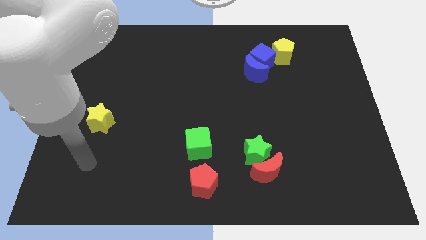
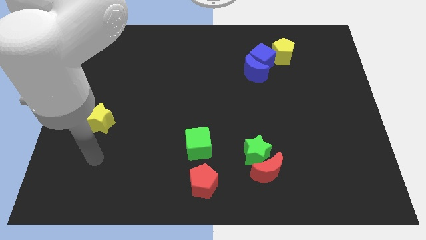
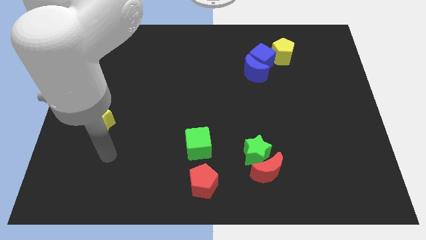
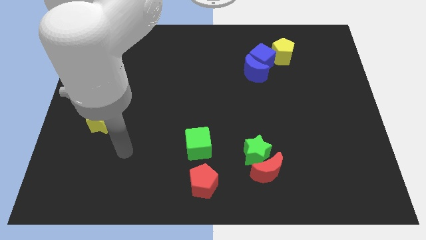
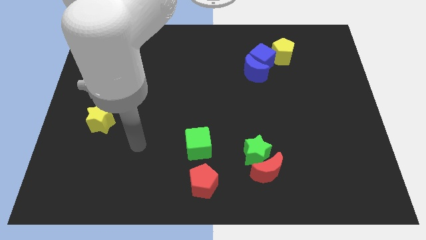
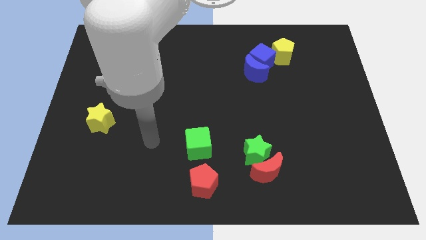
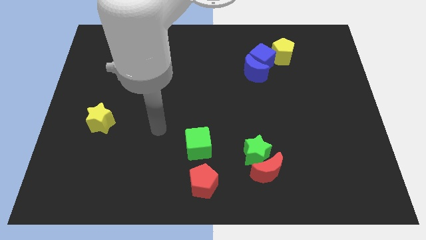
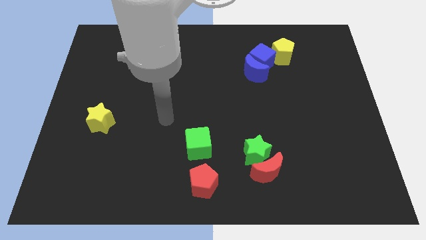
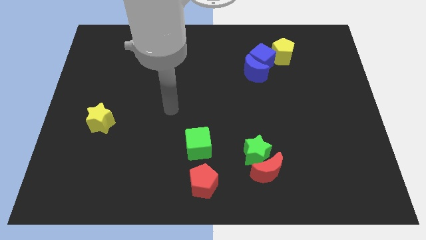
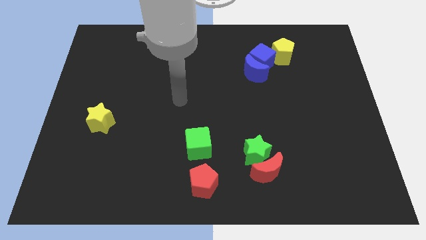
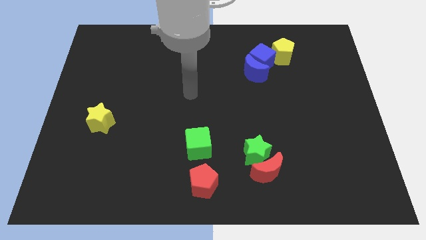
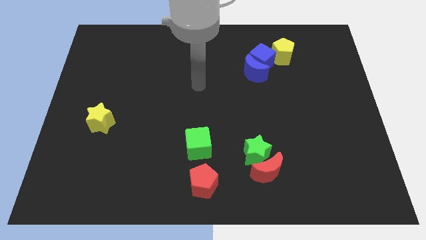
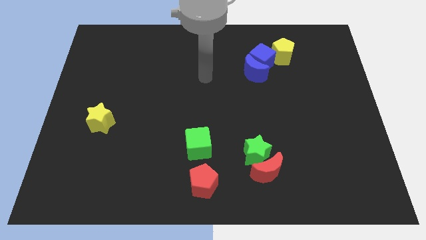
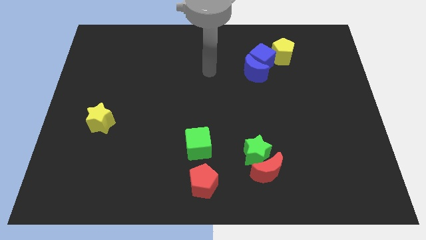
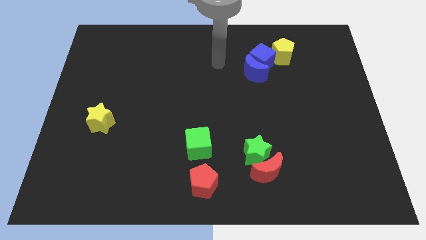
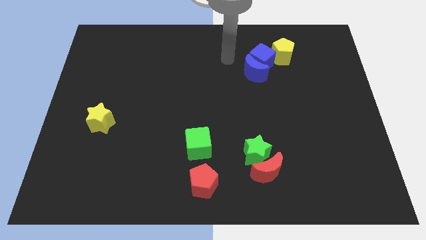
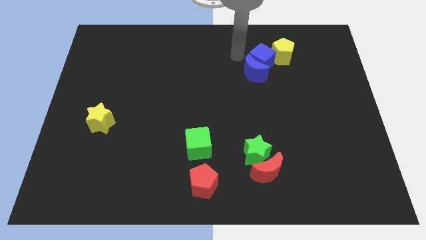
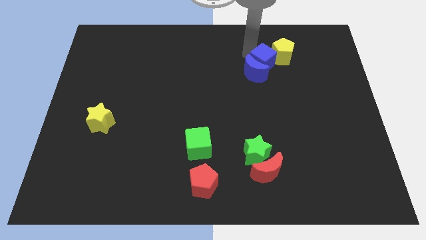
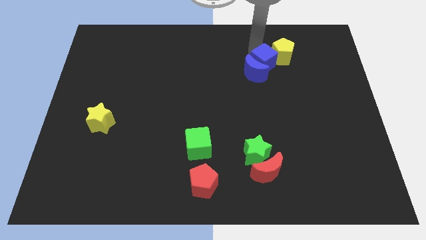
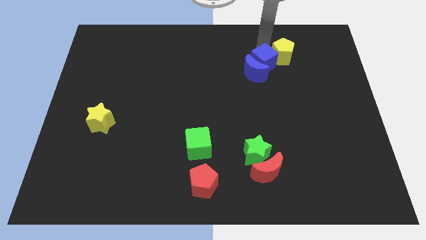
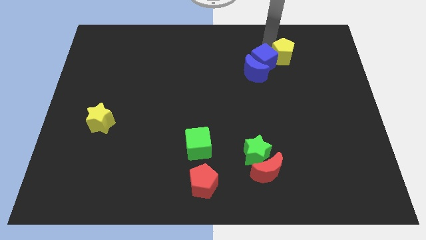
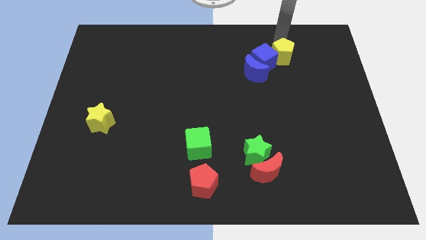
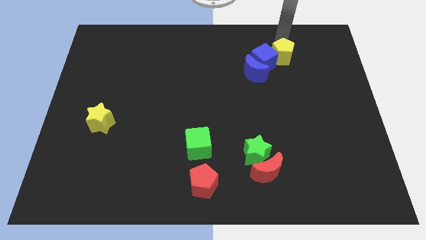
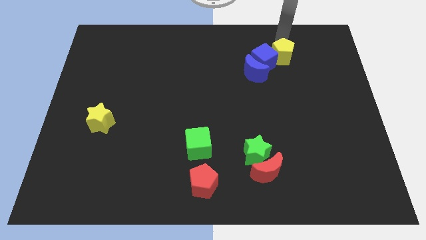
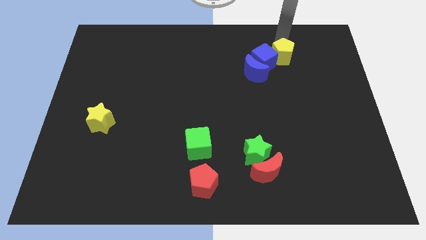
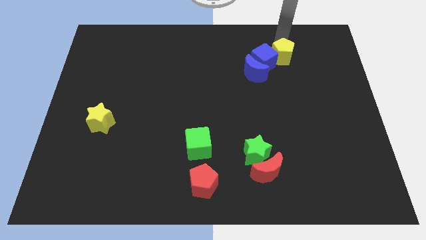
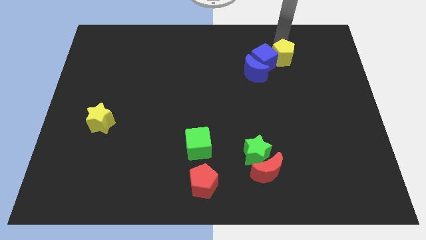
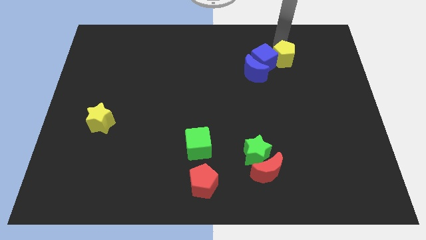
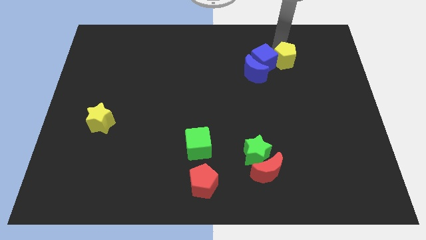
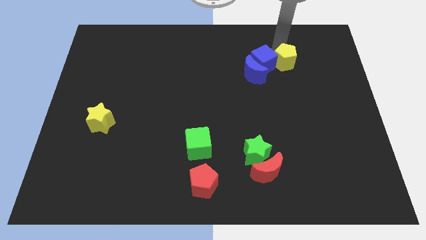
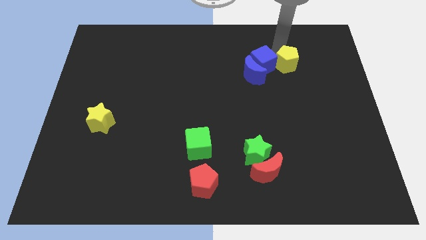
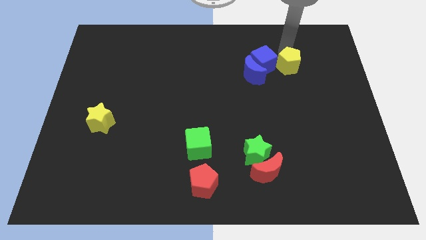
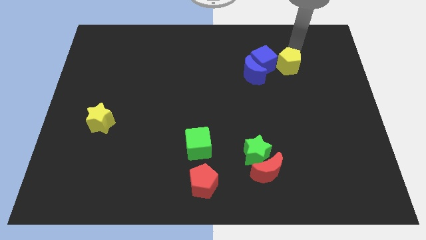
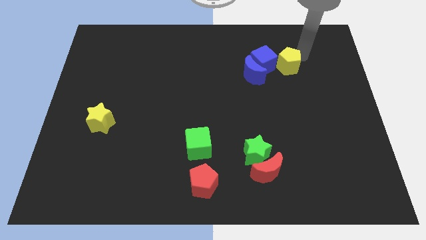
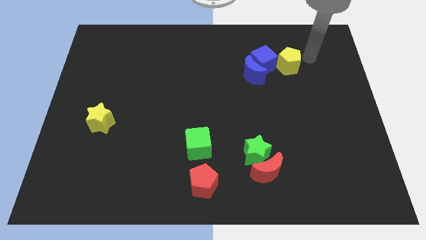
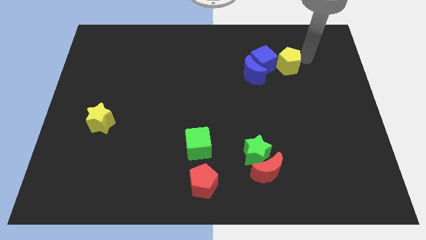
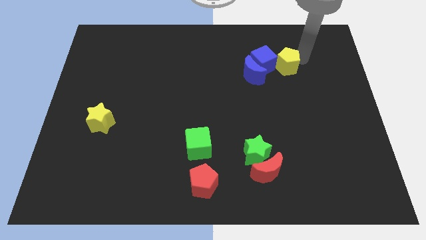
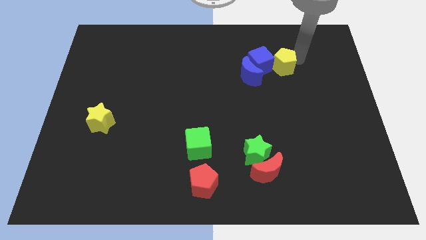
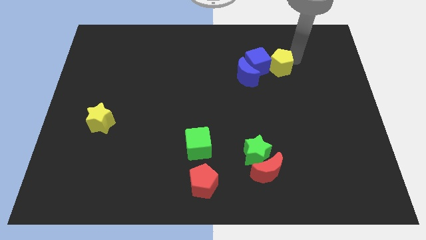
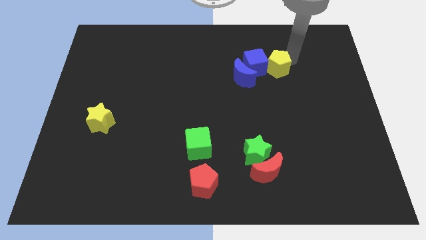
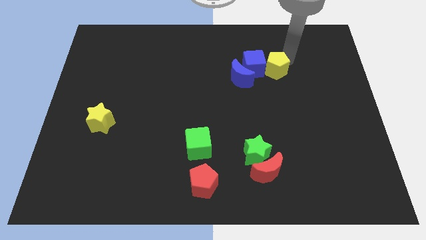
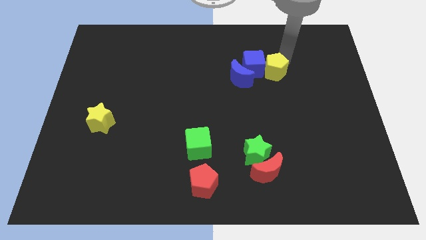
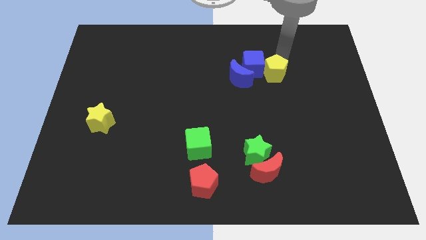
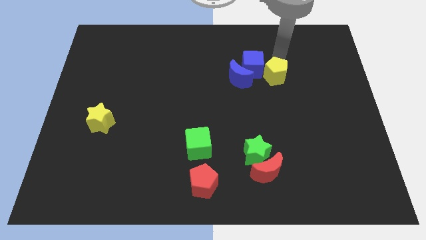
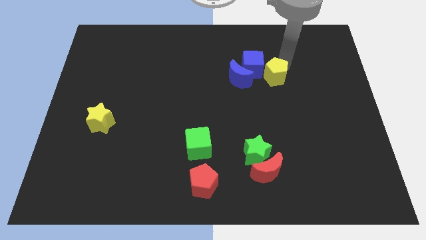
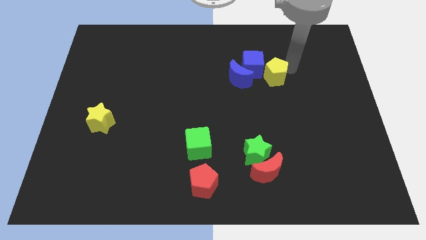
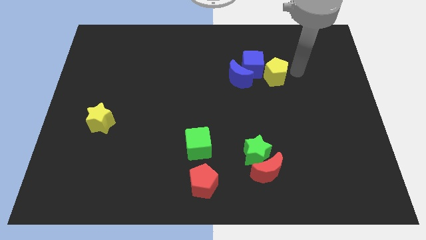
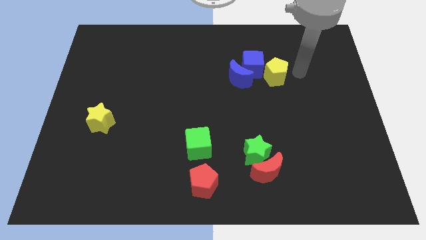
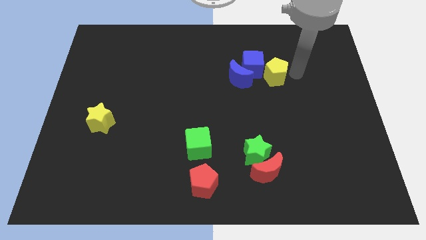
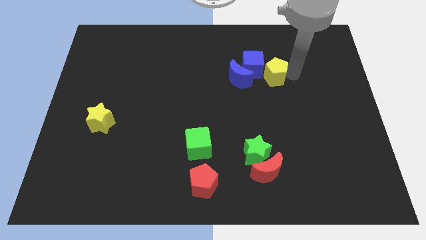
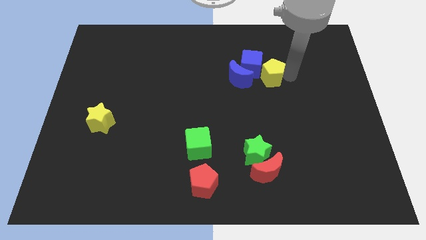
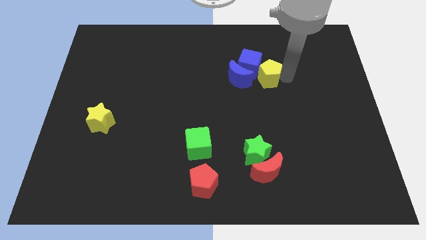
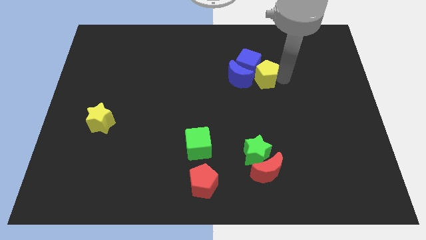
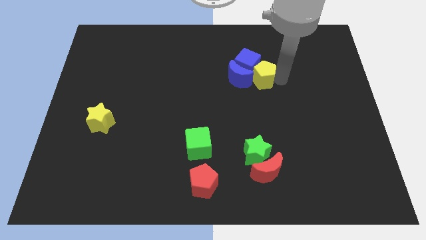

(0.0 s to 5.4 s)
slide the yellow pentagon towards the blue moon

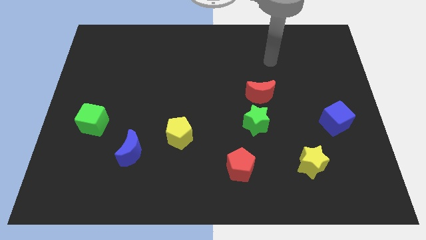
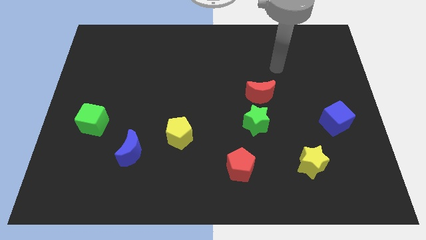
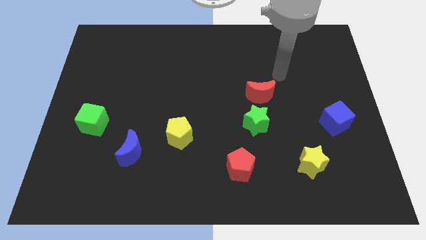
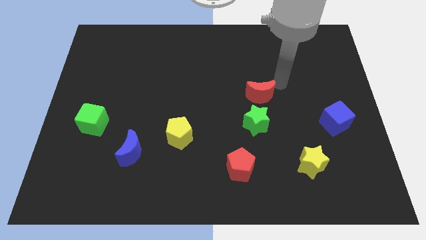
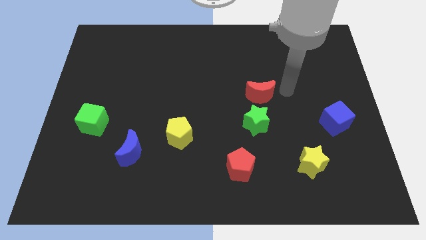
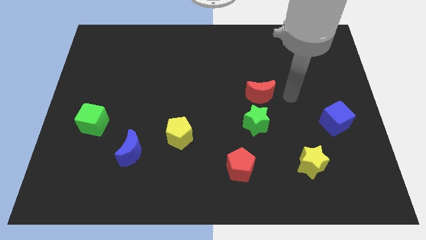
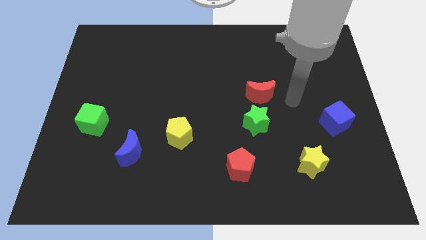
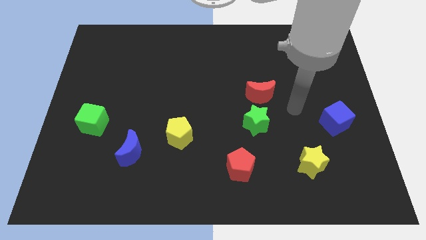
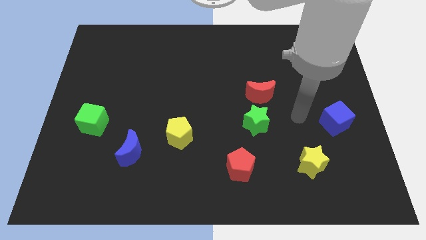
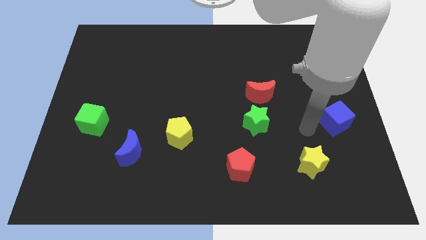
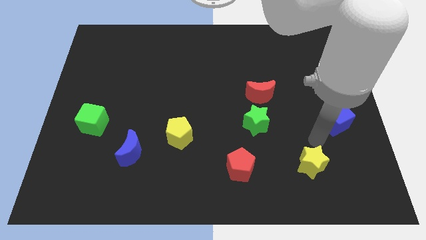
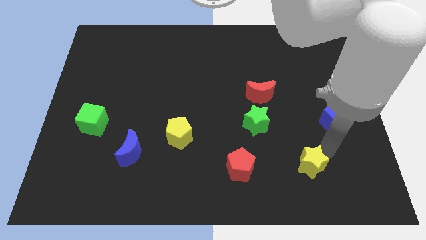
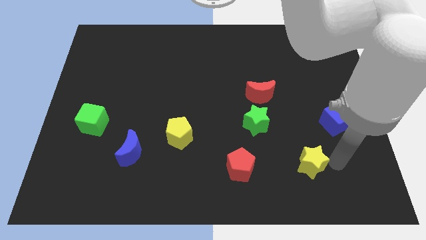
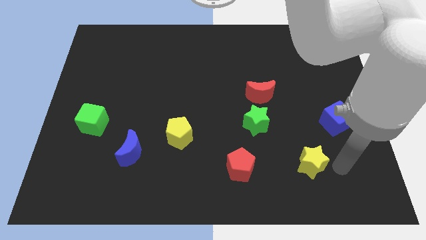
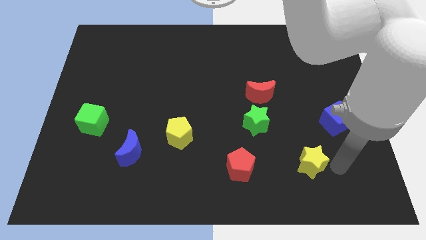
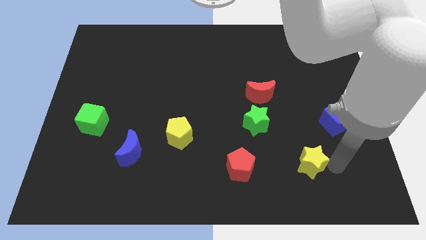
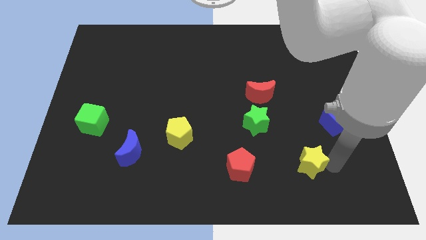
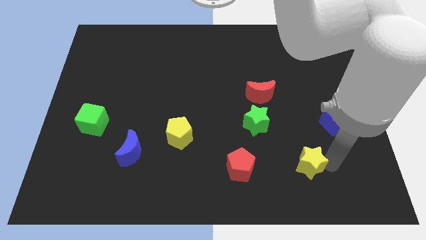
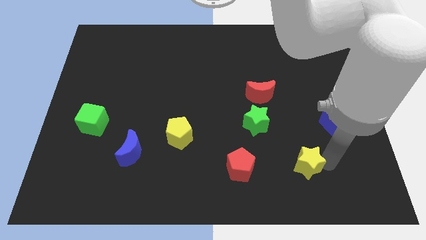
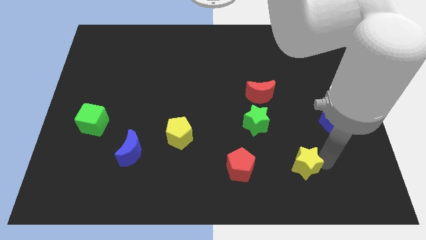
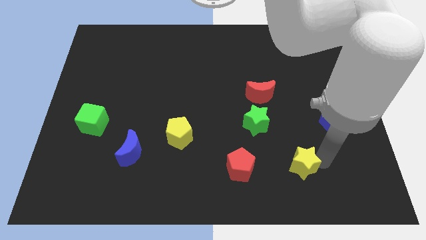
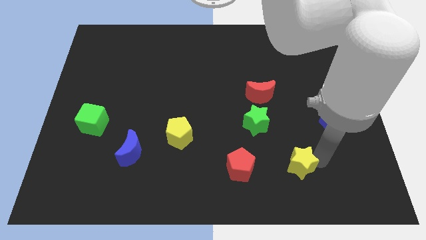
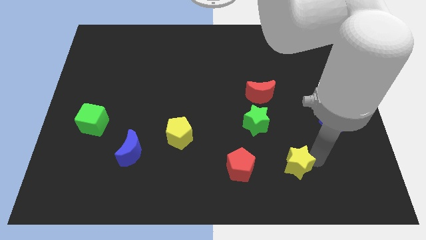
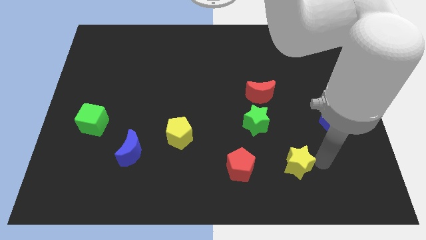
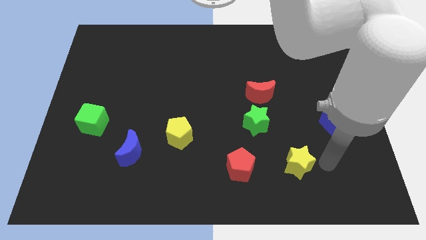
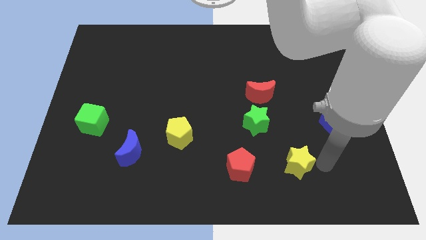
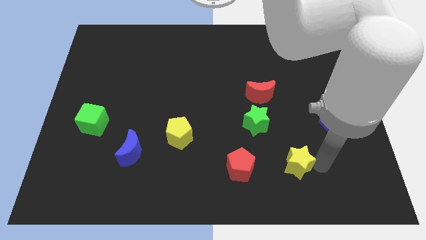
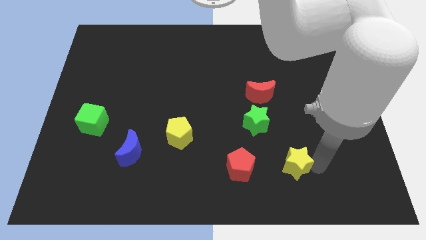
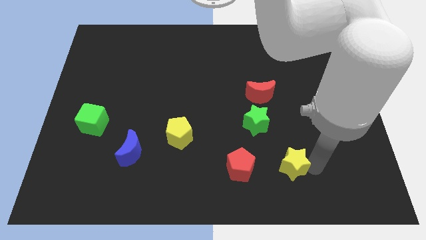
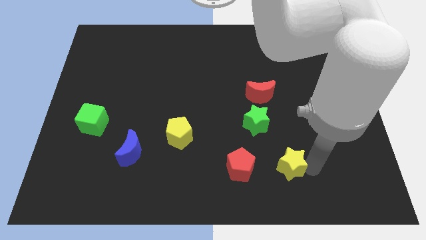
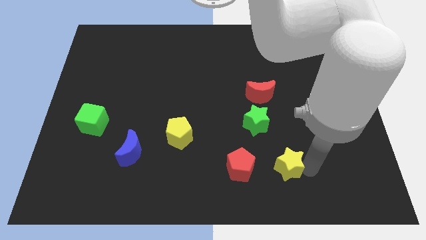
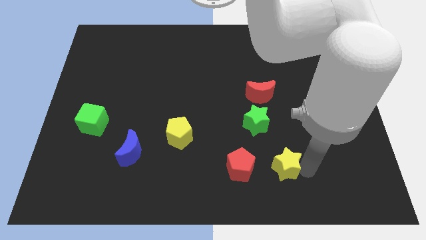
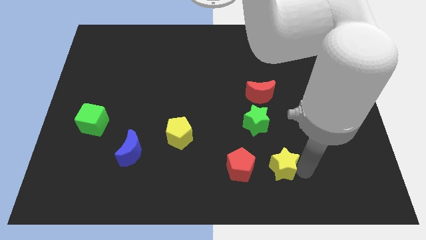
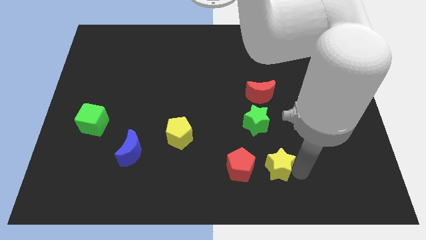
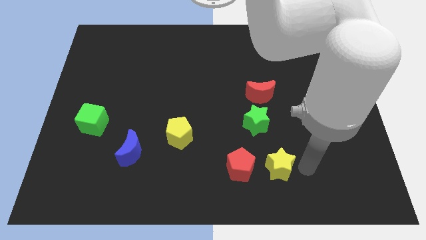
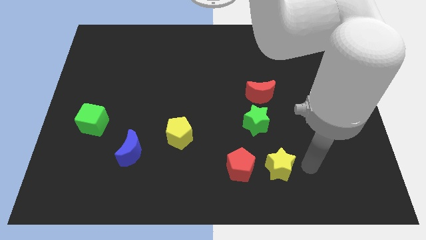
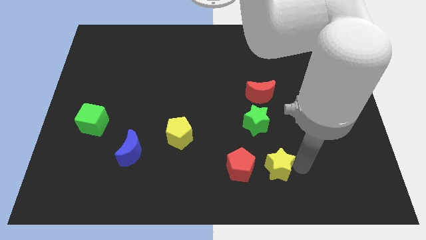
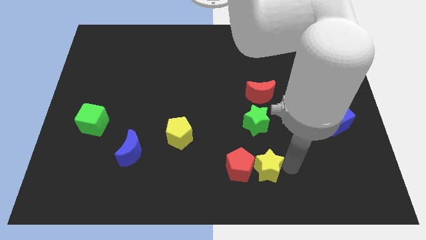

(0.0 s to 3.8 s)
slide the yellow star to the red pentagon
